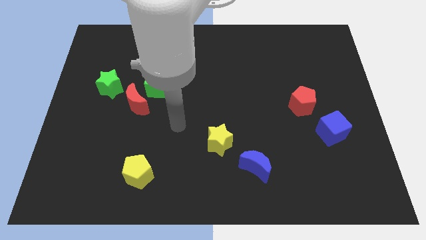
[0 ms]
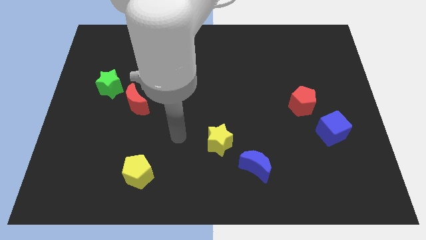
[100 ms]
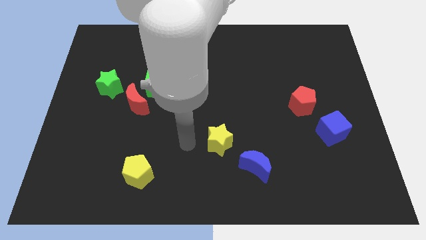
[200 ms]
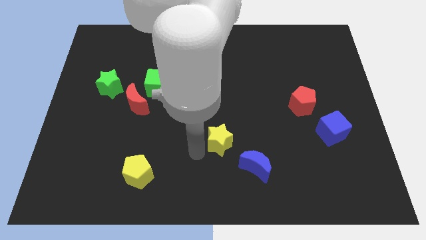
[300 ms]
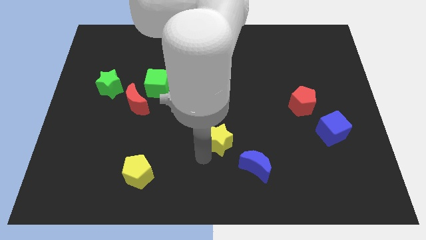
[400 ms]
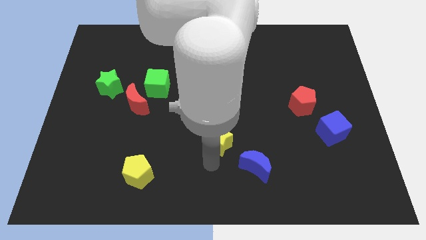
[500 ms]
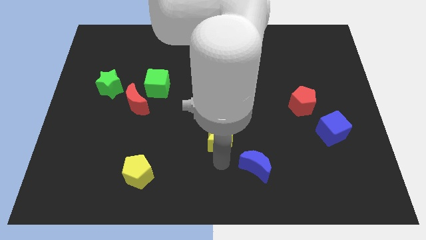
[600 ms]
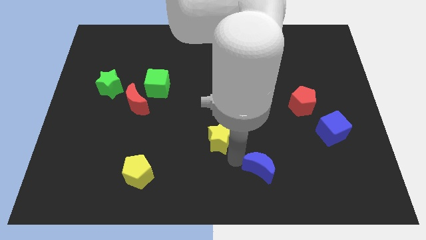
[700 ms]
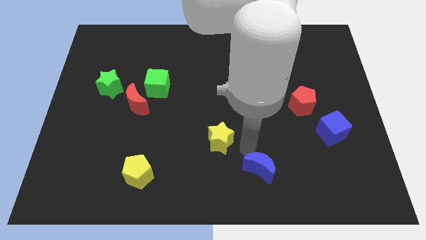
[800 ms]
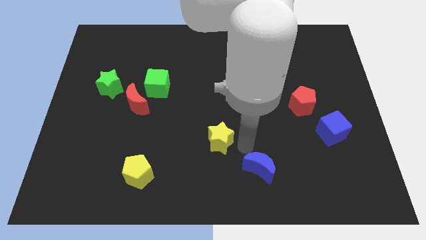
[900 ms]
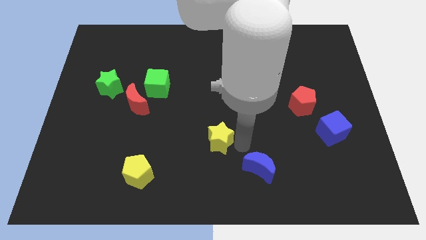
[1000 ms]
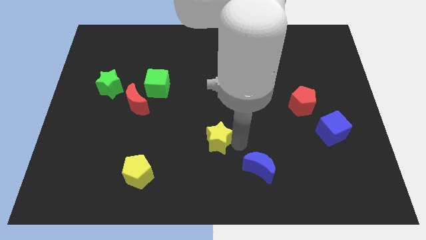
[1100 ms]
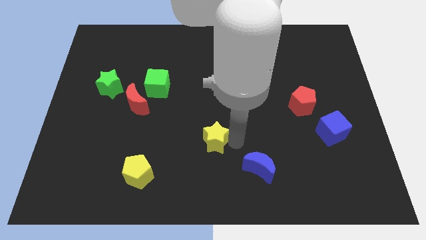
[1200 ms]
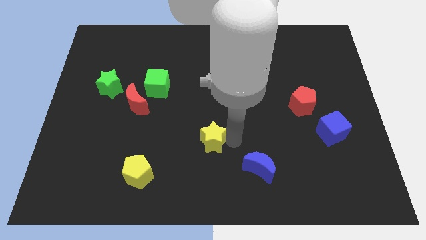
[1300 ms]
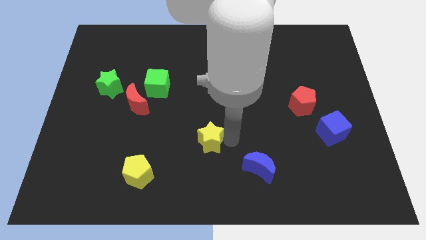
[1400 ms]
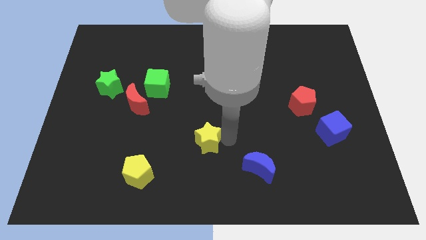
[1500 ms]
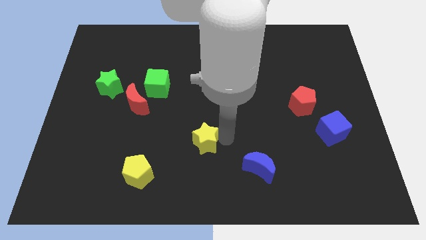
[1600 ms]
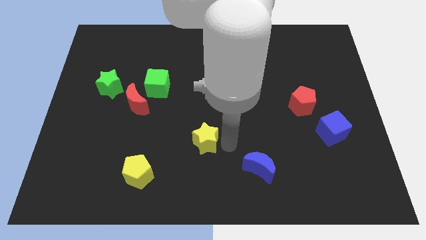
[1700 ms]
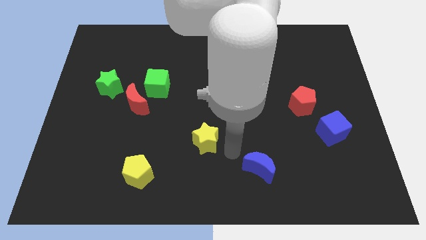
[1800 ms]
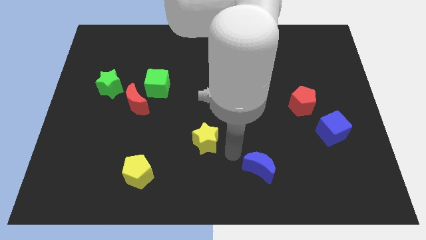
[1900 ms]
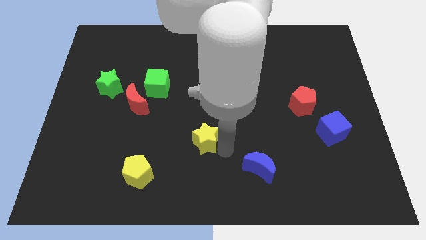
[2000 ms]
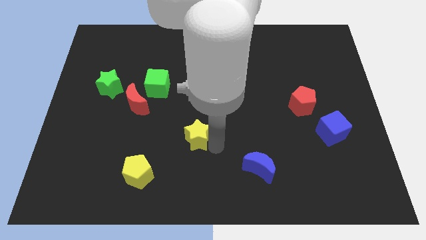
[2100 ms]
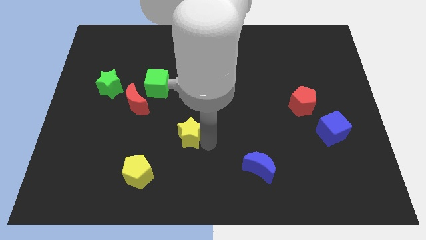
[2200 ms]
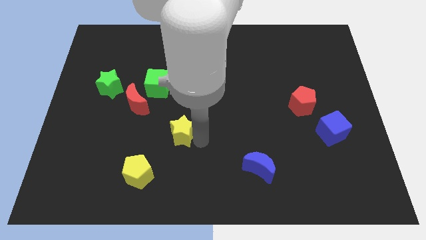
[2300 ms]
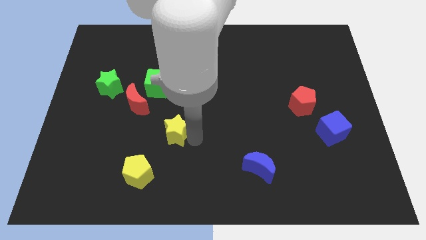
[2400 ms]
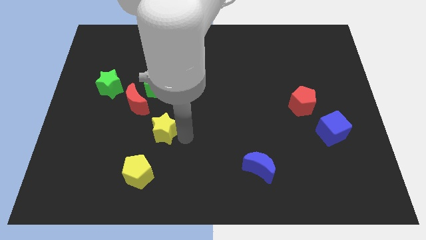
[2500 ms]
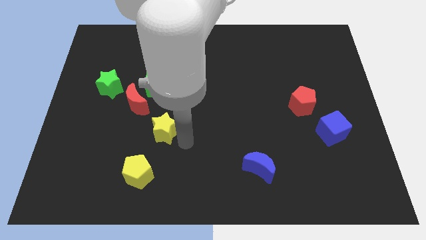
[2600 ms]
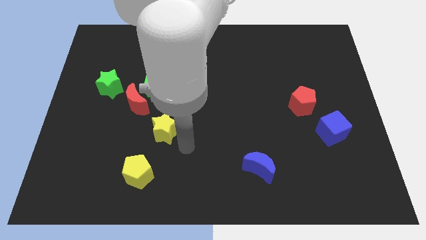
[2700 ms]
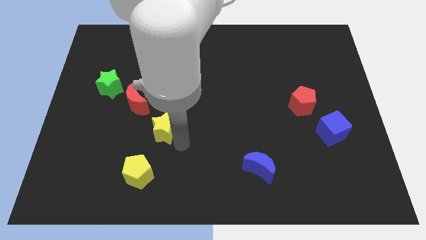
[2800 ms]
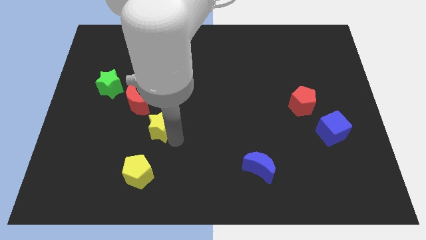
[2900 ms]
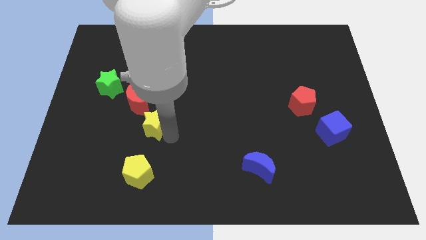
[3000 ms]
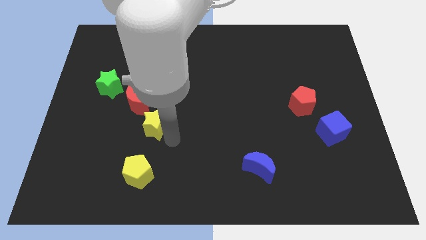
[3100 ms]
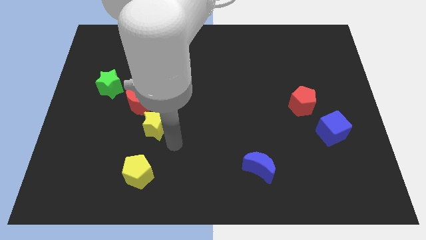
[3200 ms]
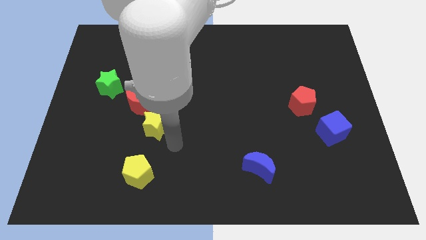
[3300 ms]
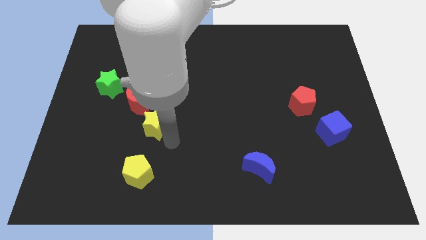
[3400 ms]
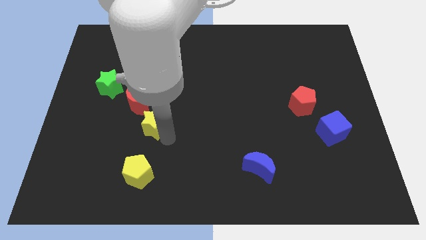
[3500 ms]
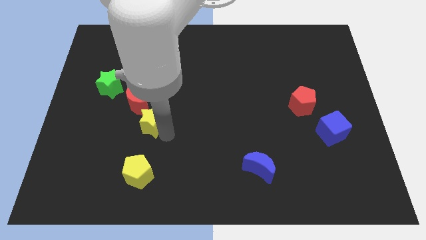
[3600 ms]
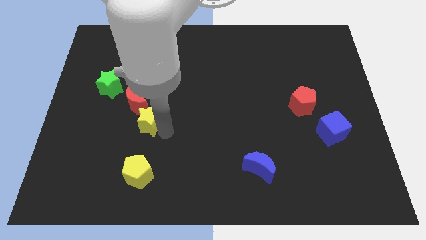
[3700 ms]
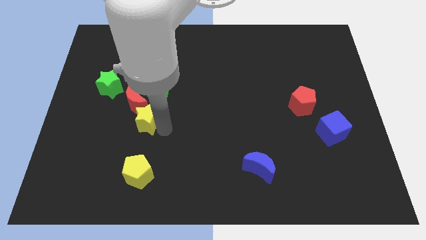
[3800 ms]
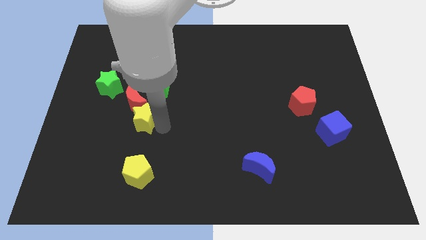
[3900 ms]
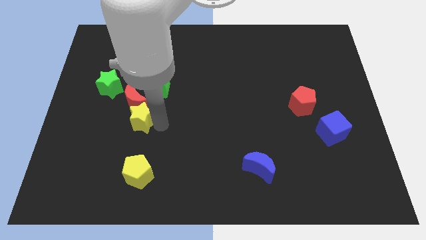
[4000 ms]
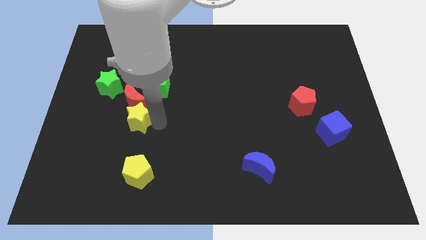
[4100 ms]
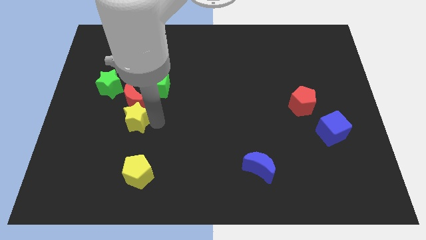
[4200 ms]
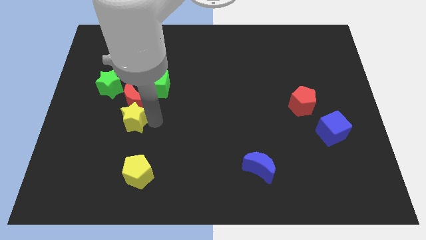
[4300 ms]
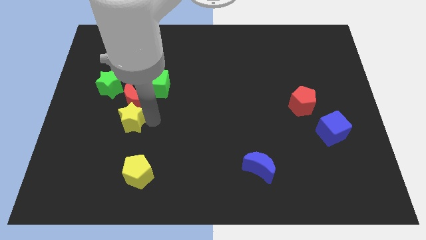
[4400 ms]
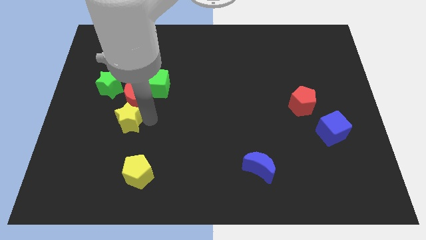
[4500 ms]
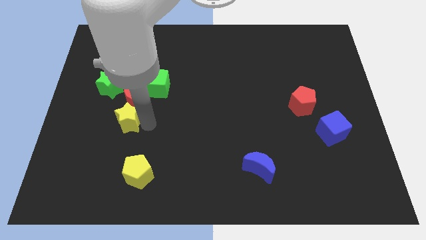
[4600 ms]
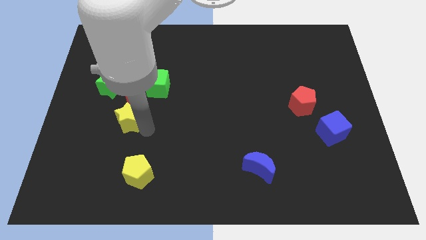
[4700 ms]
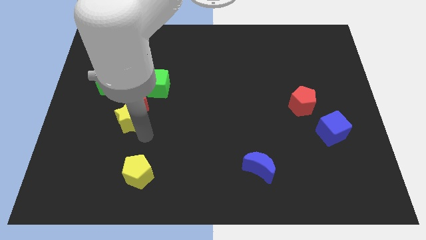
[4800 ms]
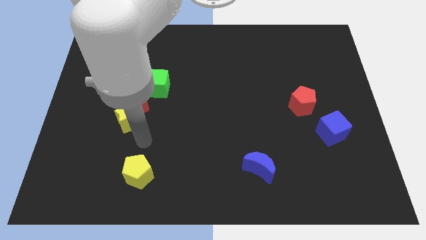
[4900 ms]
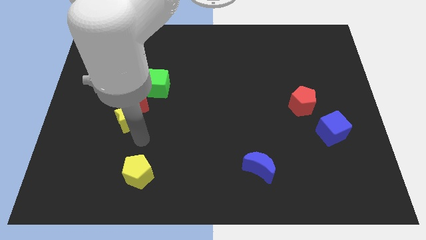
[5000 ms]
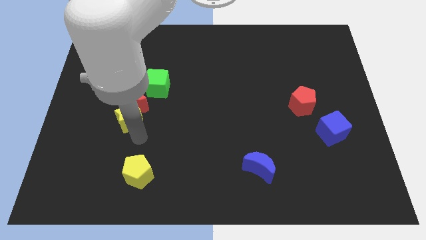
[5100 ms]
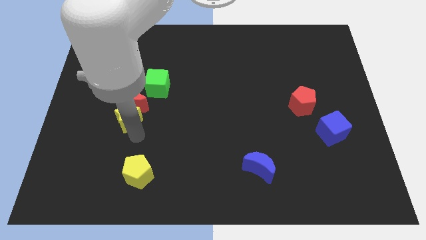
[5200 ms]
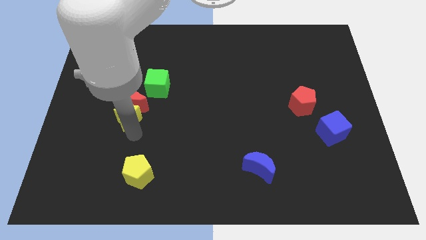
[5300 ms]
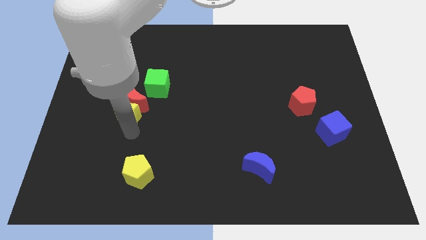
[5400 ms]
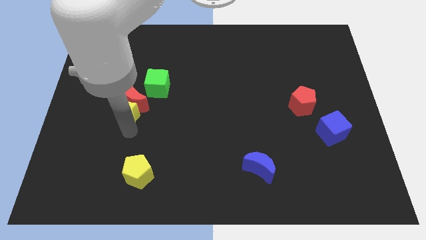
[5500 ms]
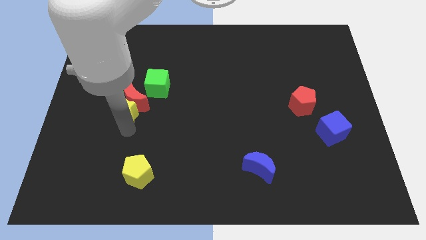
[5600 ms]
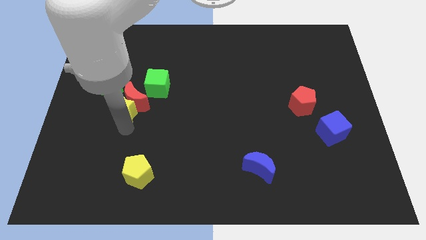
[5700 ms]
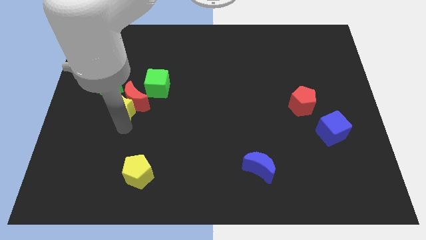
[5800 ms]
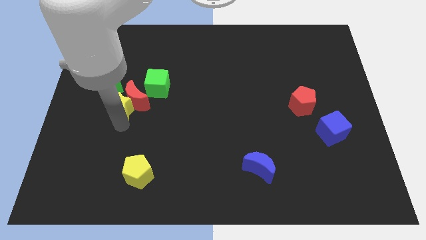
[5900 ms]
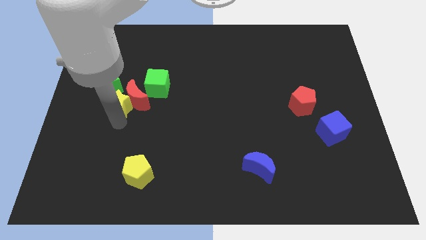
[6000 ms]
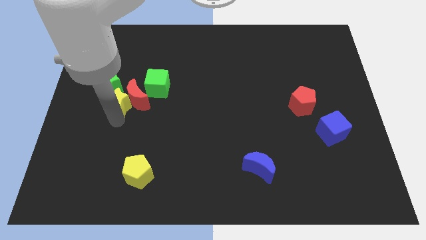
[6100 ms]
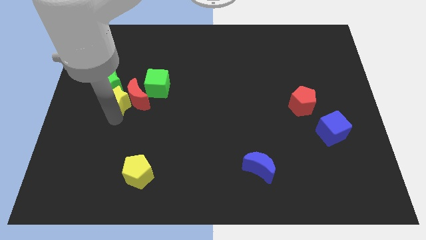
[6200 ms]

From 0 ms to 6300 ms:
move the yellow star towards the green star

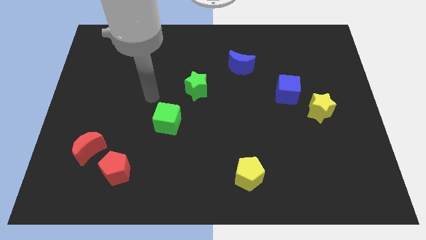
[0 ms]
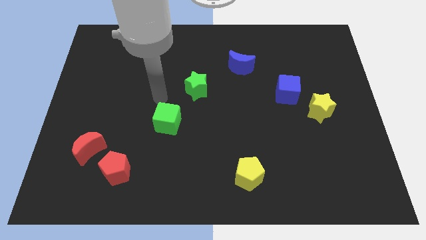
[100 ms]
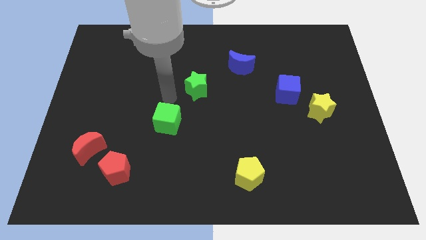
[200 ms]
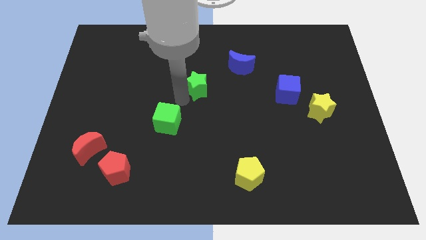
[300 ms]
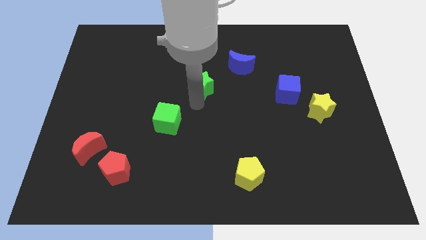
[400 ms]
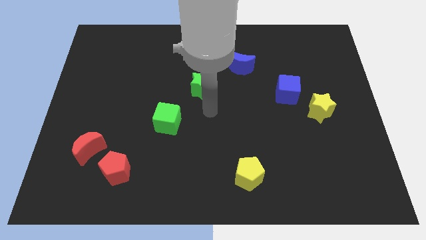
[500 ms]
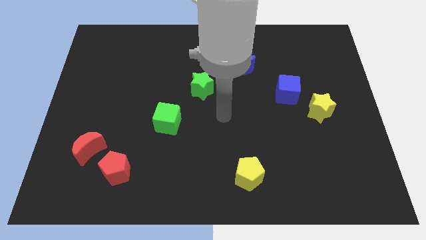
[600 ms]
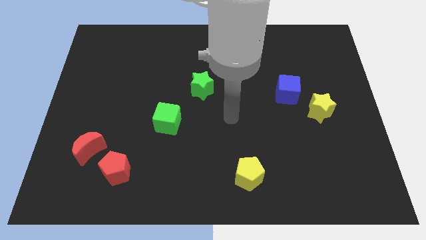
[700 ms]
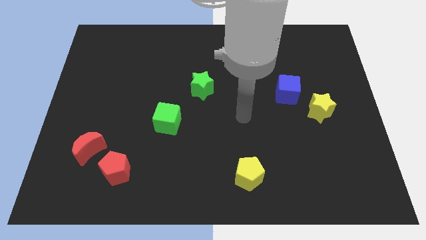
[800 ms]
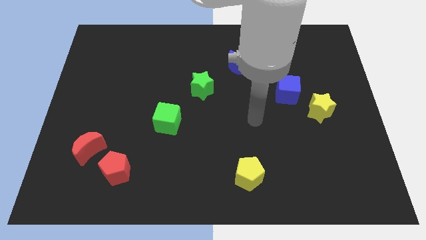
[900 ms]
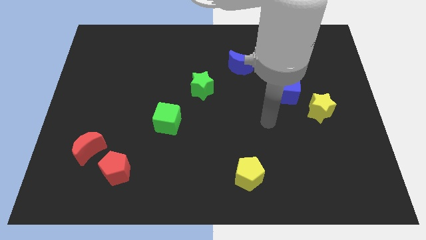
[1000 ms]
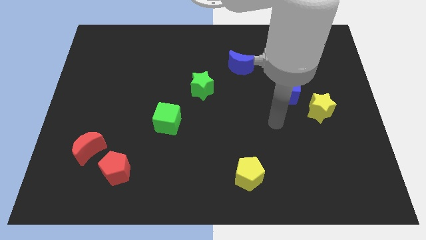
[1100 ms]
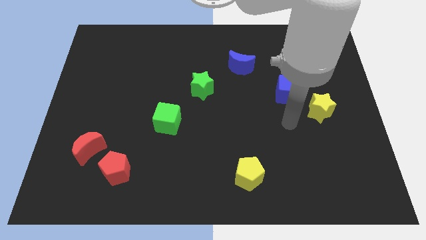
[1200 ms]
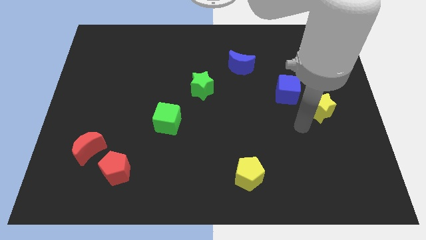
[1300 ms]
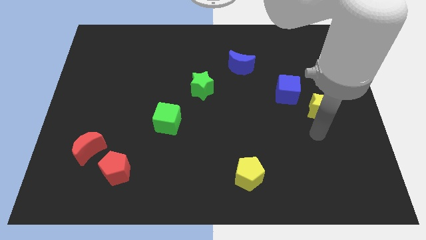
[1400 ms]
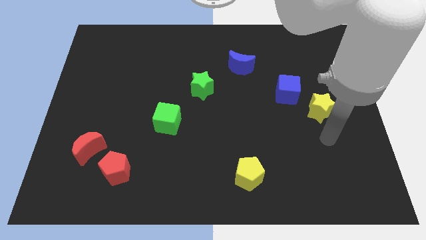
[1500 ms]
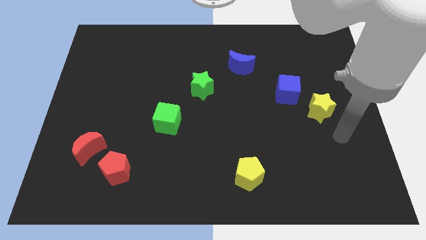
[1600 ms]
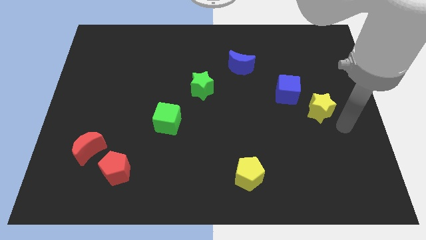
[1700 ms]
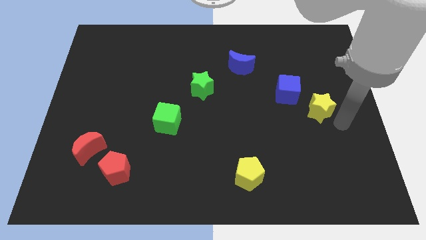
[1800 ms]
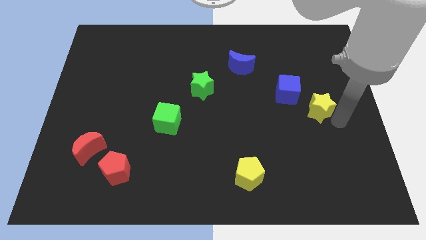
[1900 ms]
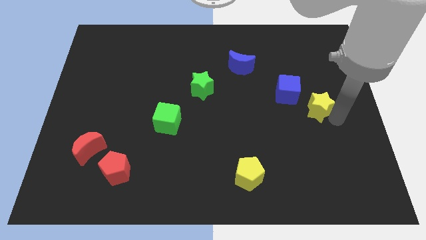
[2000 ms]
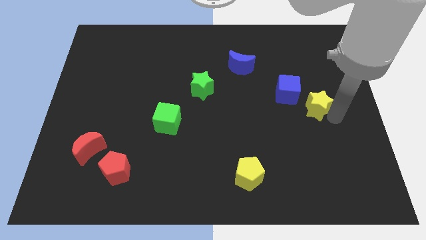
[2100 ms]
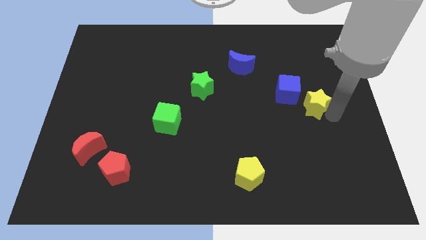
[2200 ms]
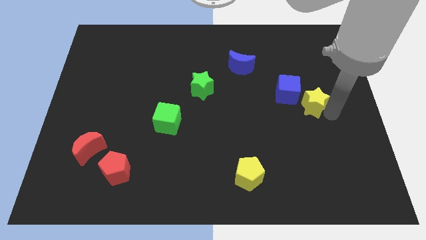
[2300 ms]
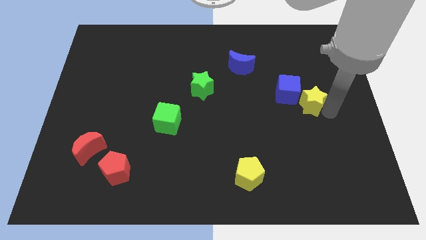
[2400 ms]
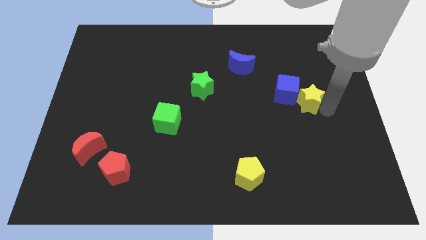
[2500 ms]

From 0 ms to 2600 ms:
slide the yellow star towards the blue cube

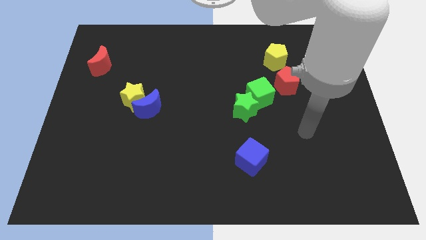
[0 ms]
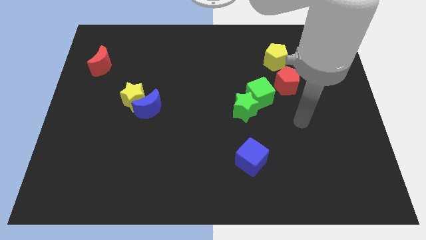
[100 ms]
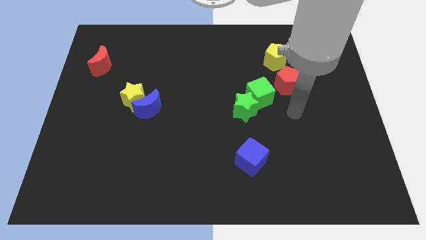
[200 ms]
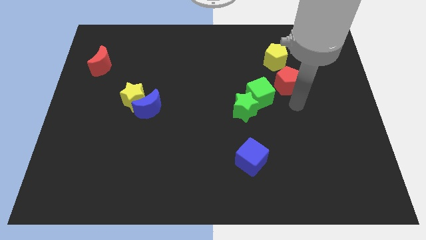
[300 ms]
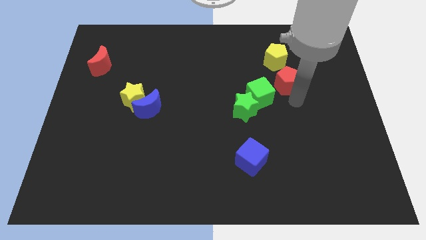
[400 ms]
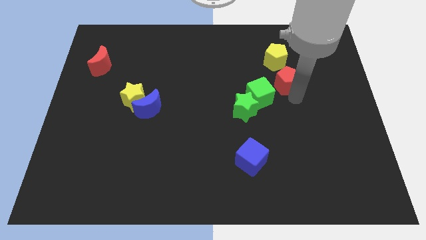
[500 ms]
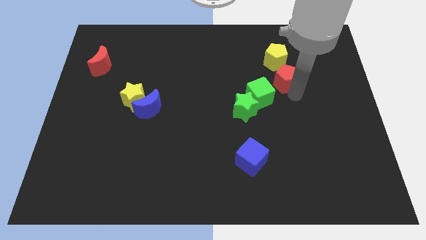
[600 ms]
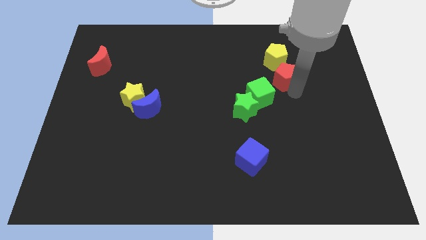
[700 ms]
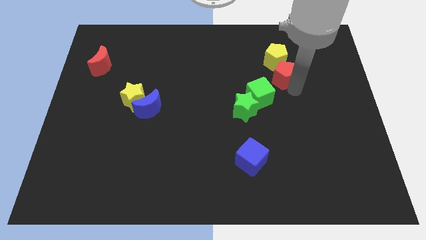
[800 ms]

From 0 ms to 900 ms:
push the red pentagon towards the yellow pentagon
